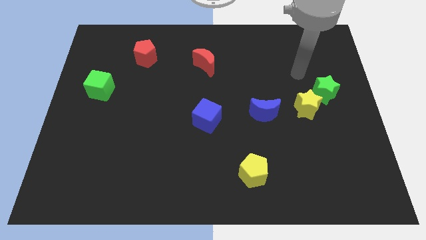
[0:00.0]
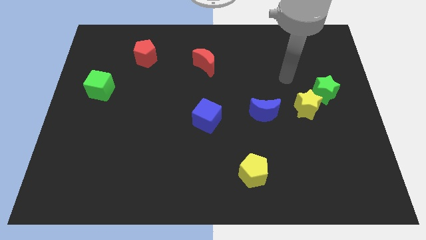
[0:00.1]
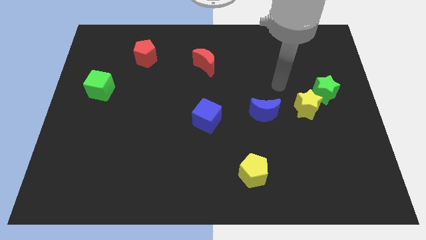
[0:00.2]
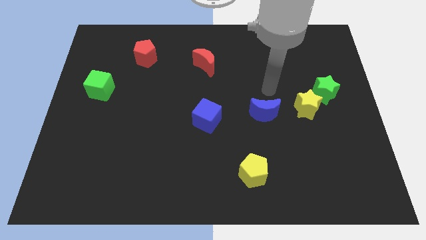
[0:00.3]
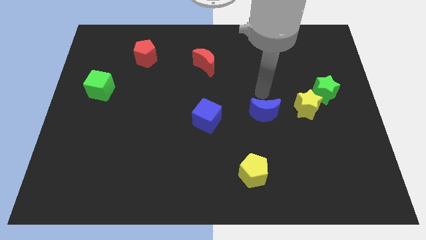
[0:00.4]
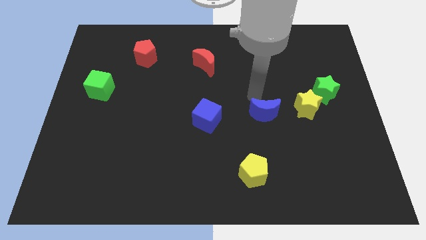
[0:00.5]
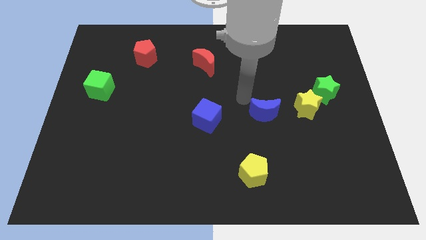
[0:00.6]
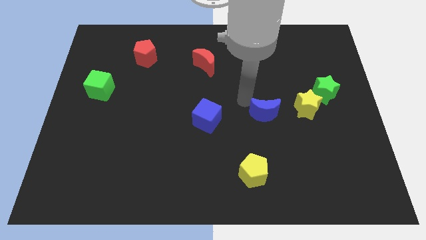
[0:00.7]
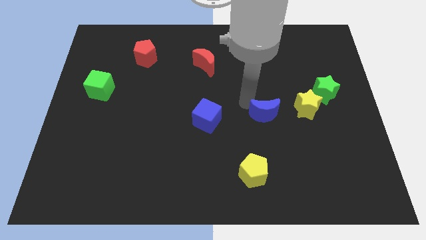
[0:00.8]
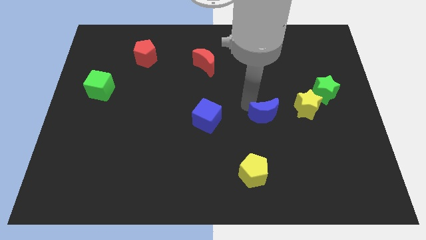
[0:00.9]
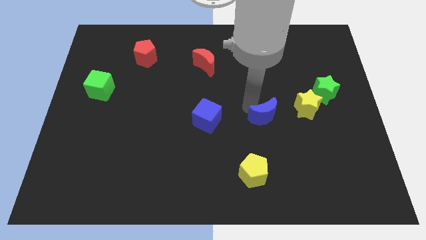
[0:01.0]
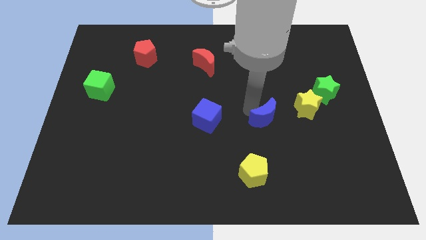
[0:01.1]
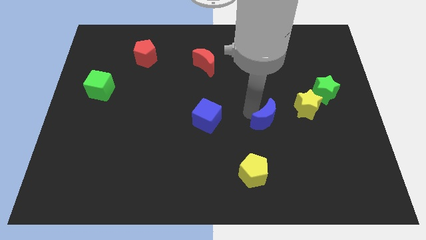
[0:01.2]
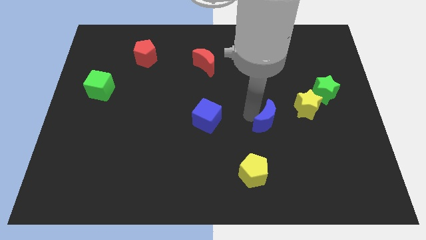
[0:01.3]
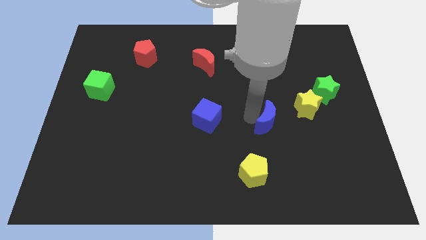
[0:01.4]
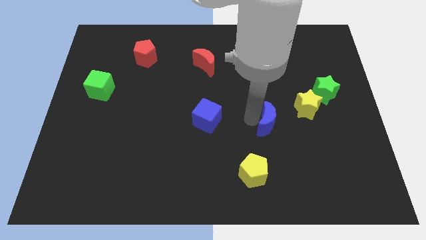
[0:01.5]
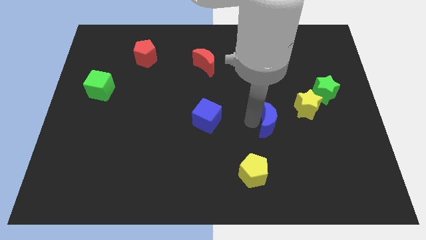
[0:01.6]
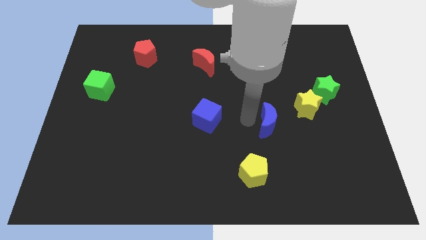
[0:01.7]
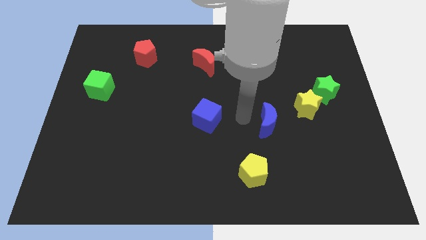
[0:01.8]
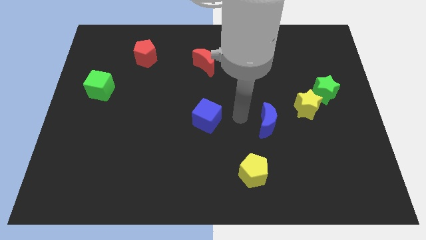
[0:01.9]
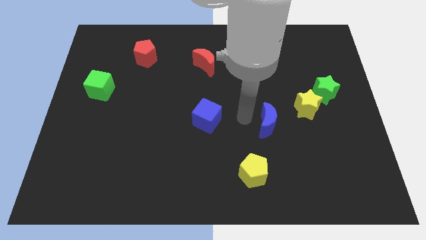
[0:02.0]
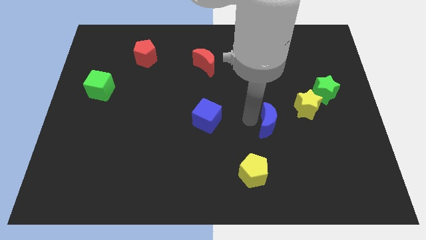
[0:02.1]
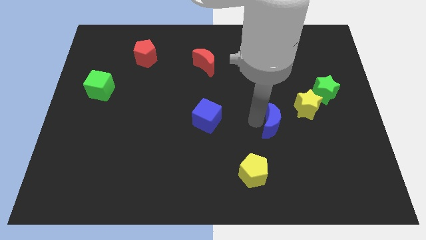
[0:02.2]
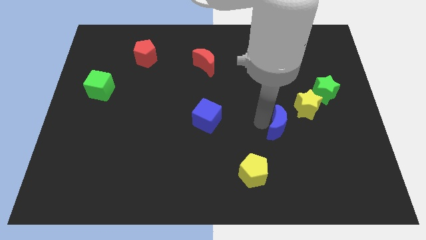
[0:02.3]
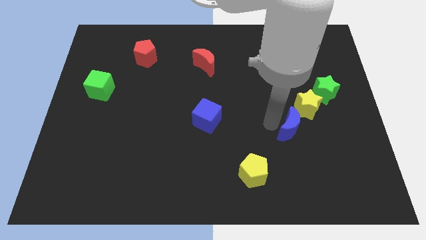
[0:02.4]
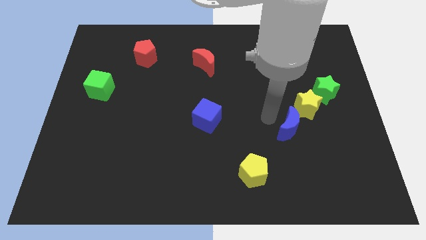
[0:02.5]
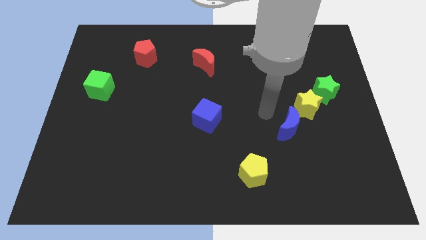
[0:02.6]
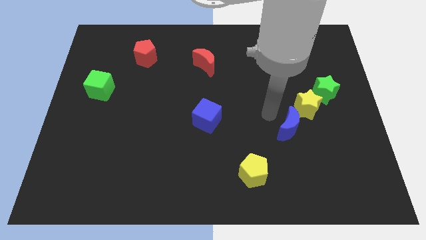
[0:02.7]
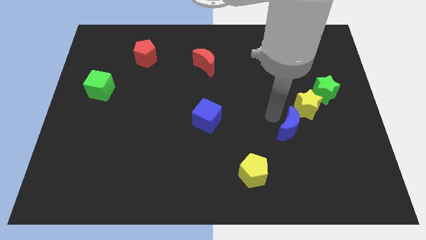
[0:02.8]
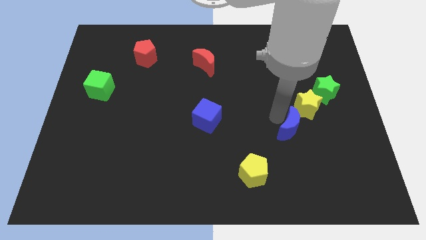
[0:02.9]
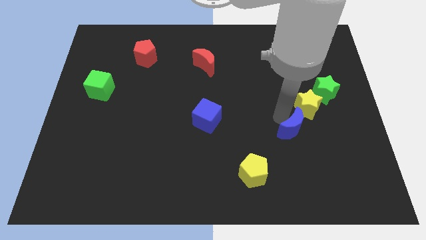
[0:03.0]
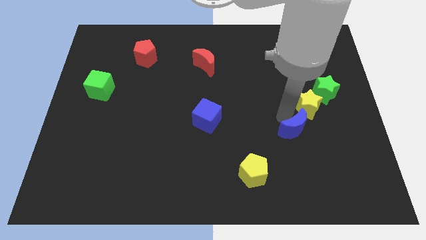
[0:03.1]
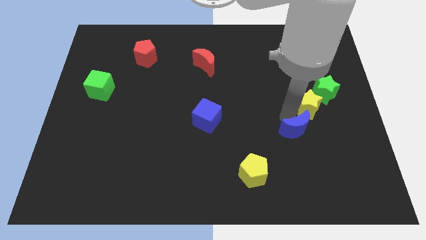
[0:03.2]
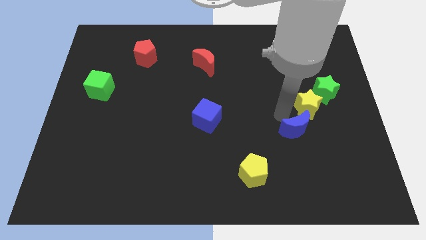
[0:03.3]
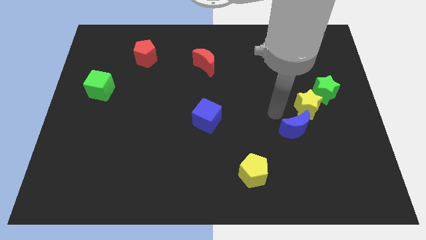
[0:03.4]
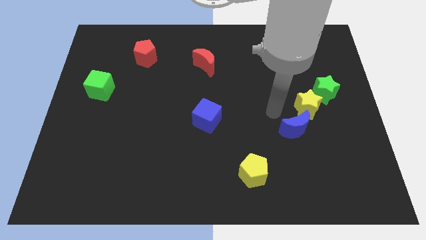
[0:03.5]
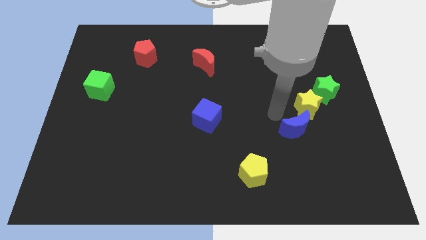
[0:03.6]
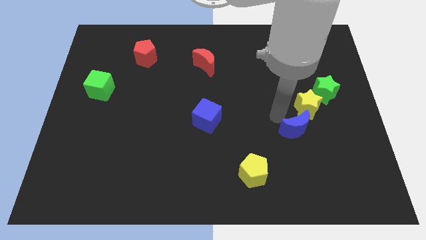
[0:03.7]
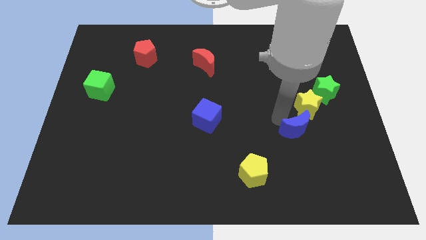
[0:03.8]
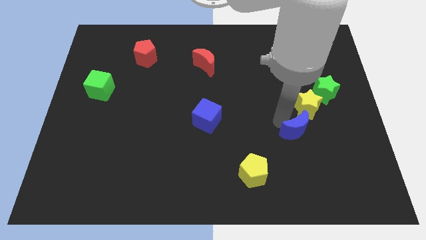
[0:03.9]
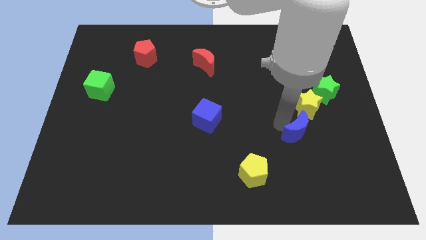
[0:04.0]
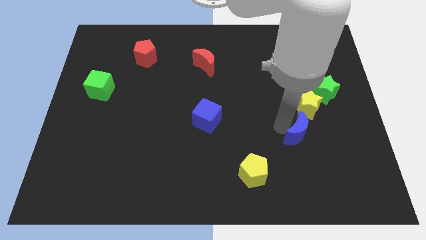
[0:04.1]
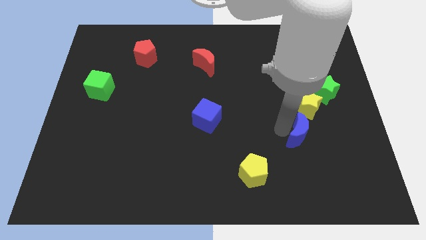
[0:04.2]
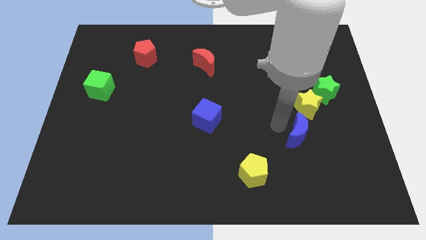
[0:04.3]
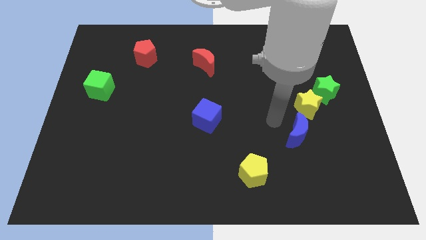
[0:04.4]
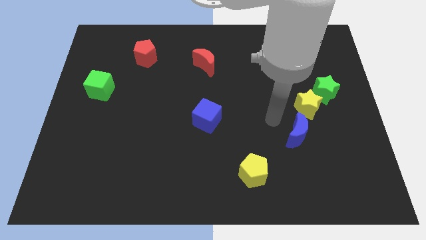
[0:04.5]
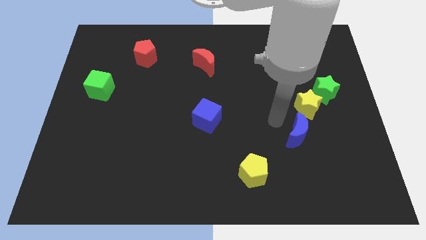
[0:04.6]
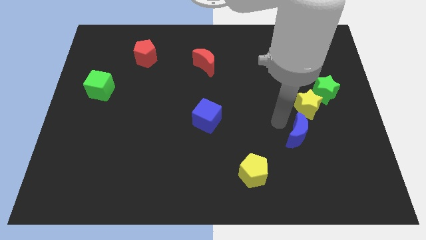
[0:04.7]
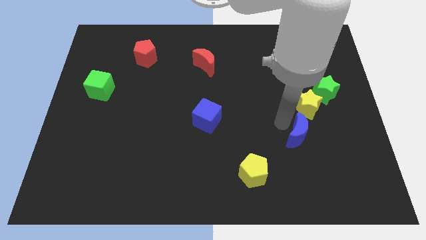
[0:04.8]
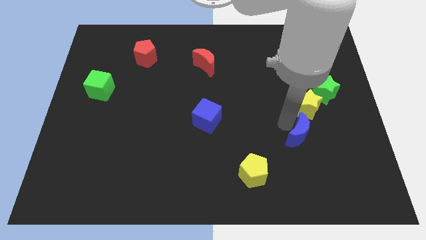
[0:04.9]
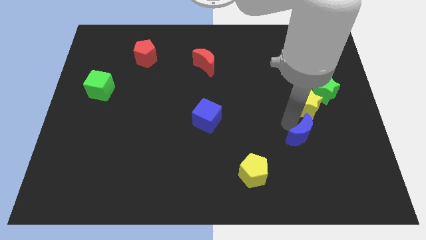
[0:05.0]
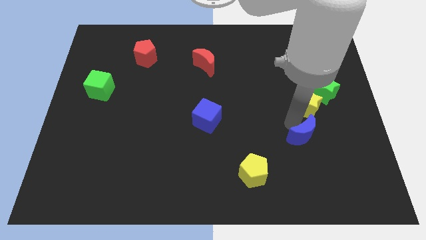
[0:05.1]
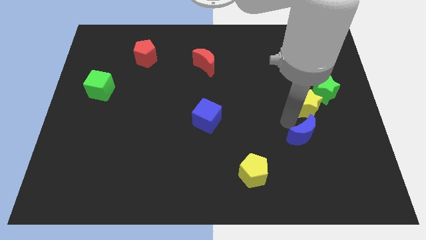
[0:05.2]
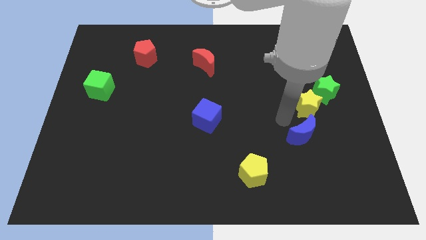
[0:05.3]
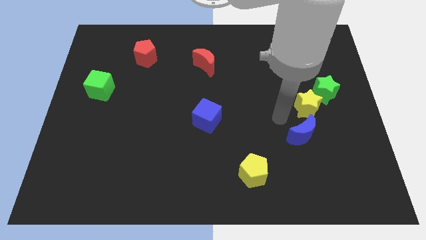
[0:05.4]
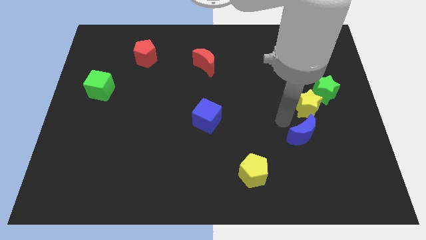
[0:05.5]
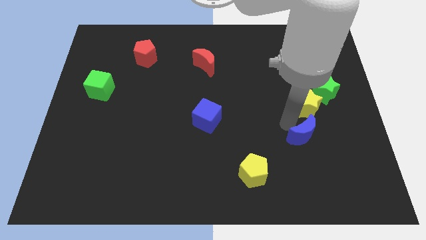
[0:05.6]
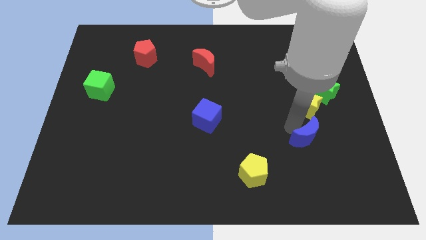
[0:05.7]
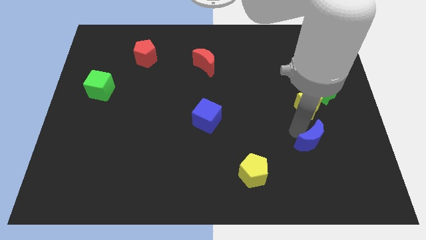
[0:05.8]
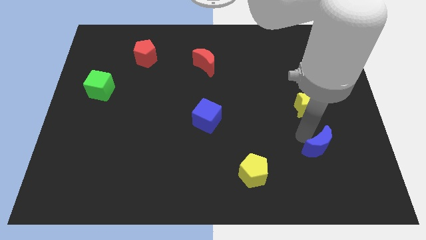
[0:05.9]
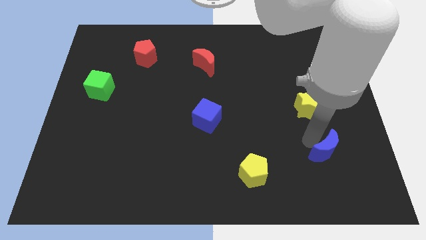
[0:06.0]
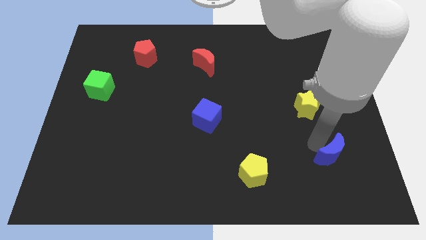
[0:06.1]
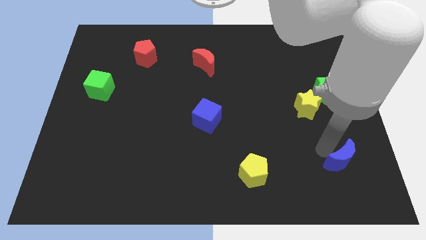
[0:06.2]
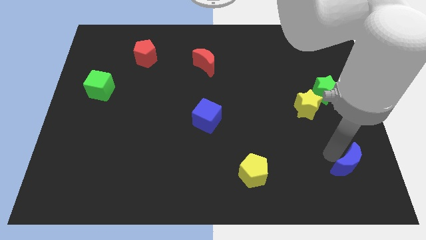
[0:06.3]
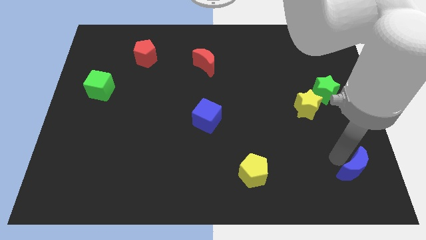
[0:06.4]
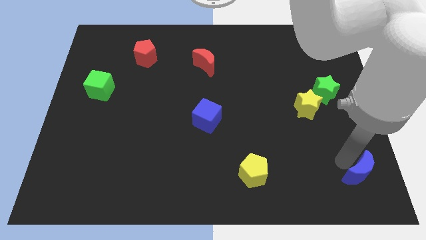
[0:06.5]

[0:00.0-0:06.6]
slide the blue moon to the bottom right

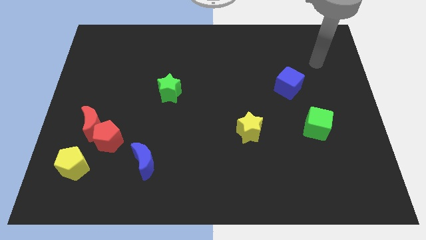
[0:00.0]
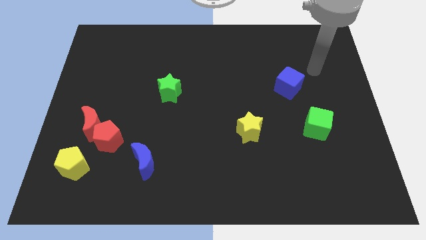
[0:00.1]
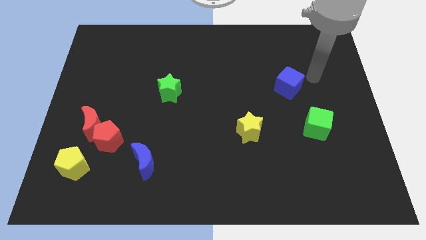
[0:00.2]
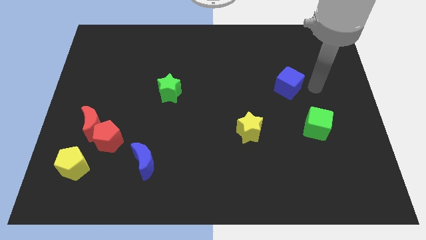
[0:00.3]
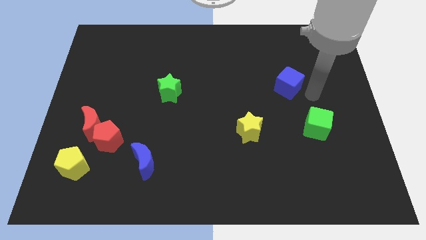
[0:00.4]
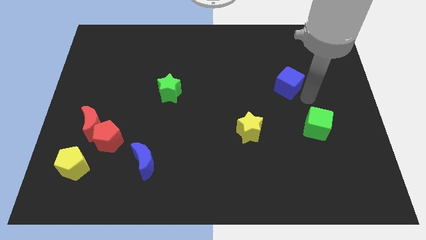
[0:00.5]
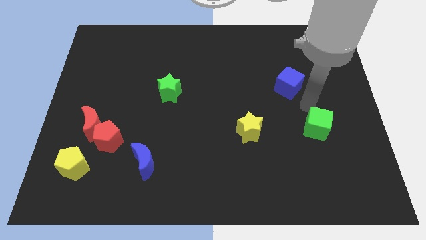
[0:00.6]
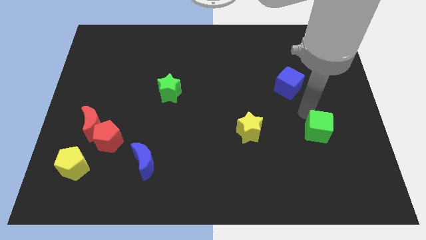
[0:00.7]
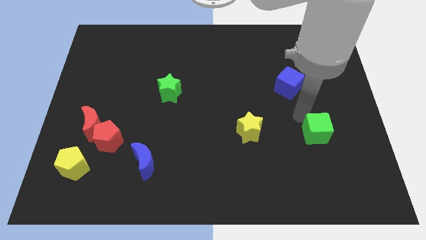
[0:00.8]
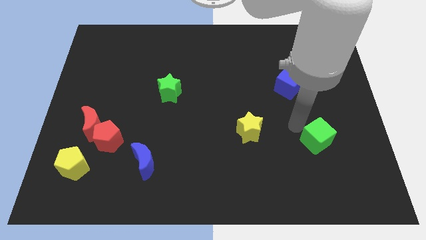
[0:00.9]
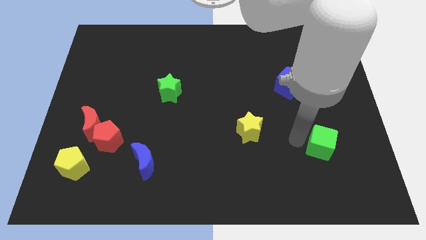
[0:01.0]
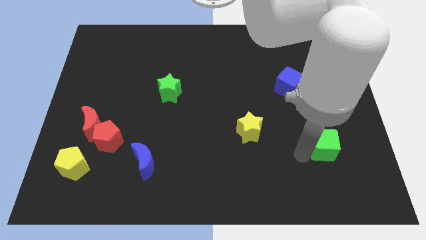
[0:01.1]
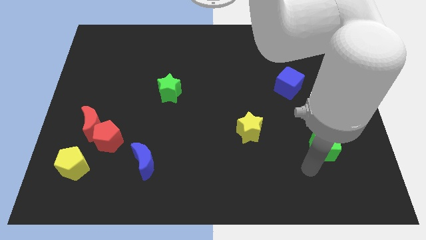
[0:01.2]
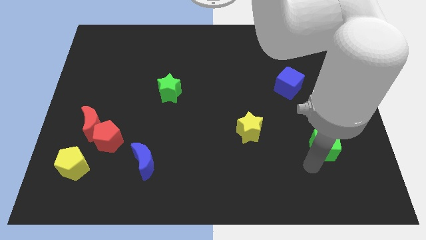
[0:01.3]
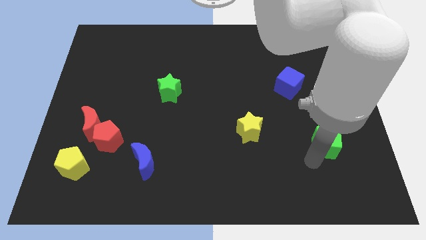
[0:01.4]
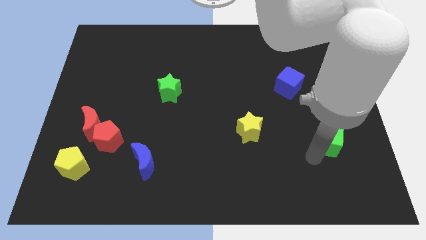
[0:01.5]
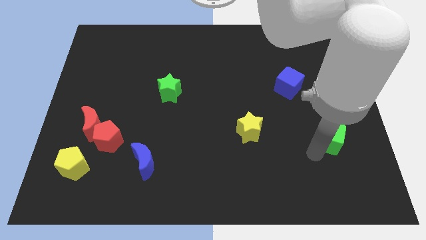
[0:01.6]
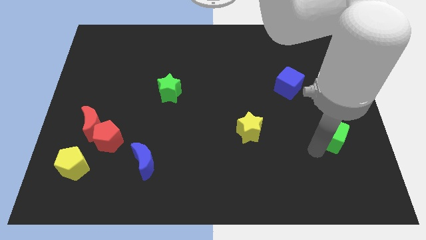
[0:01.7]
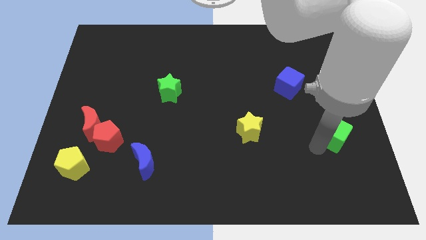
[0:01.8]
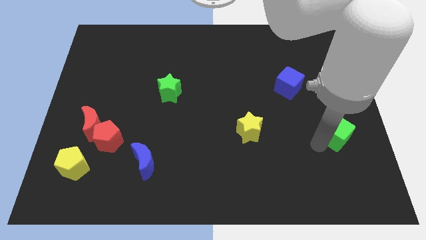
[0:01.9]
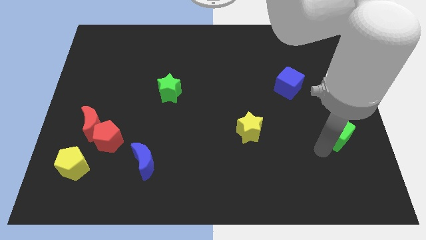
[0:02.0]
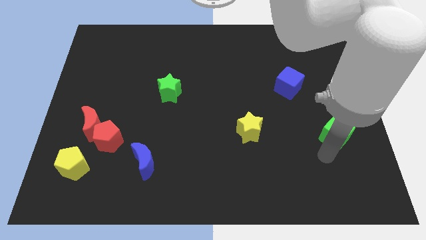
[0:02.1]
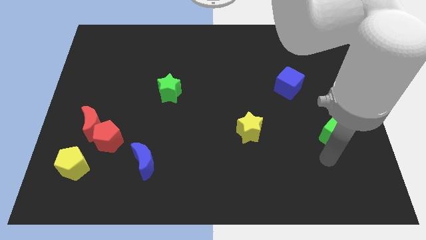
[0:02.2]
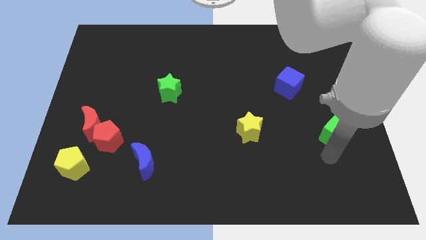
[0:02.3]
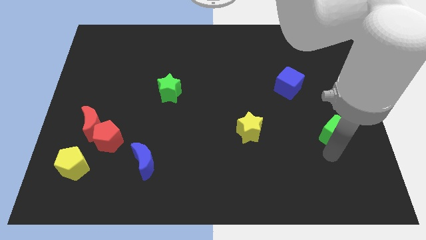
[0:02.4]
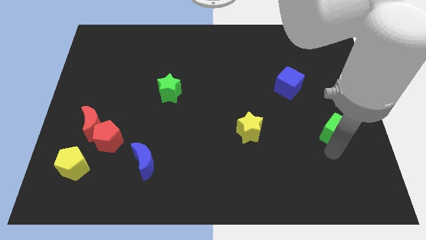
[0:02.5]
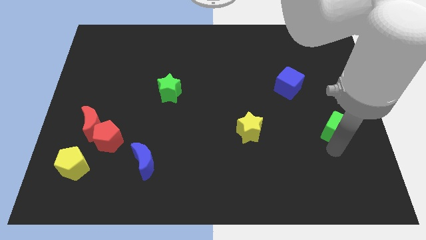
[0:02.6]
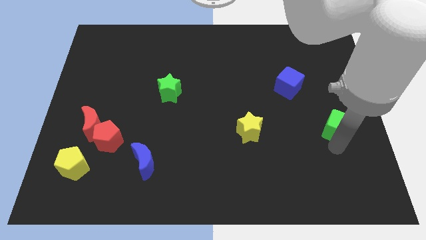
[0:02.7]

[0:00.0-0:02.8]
slide the green cube to the center right
